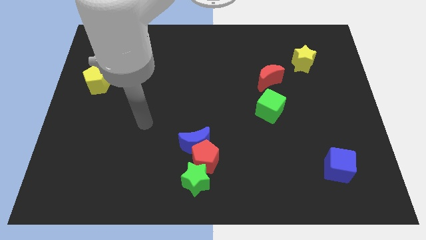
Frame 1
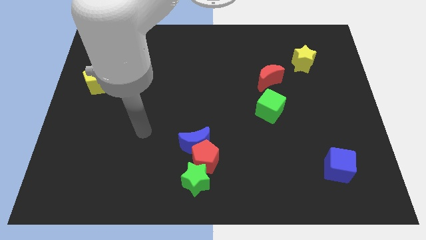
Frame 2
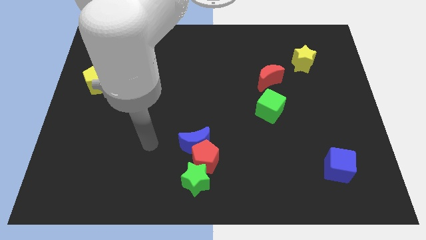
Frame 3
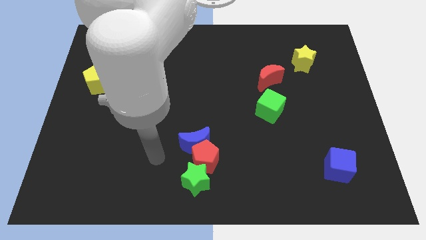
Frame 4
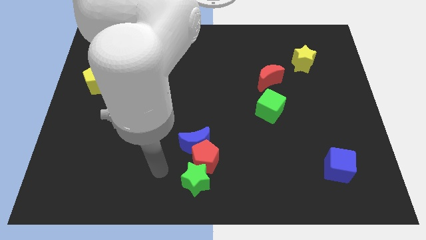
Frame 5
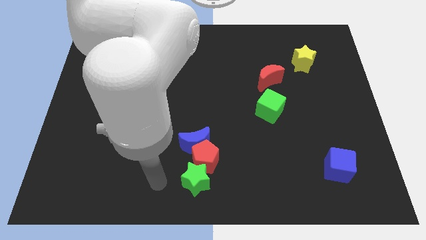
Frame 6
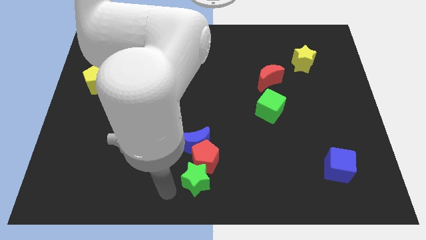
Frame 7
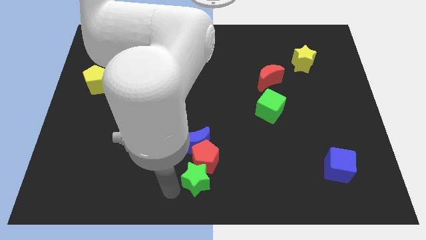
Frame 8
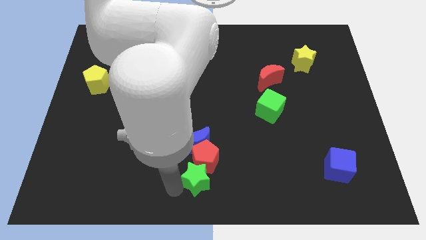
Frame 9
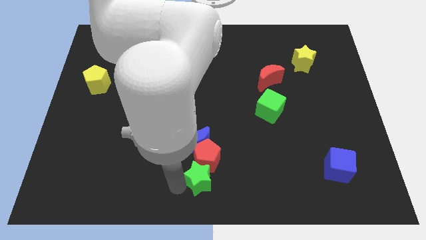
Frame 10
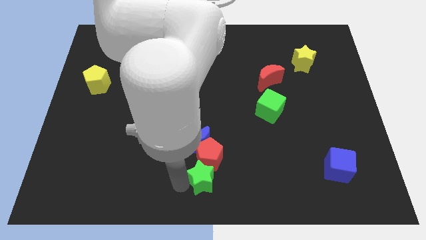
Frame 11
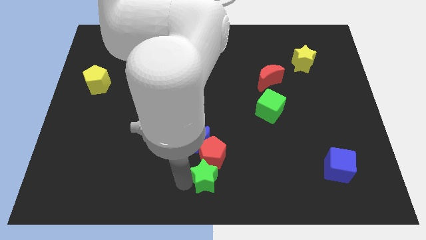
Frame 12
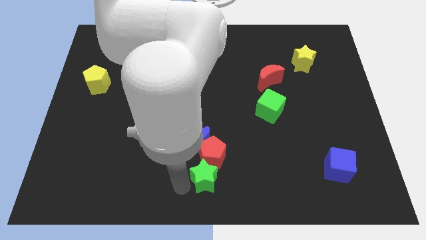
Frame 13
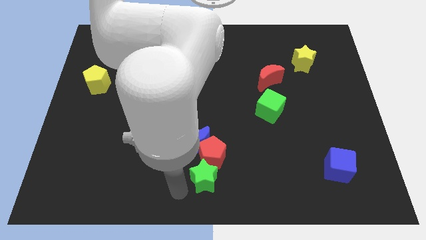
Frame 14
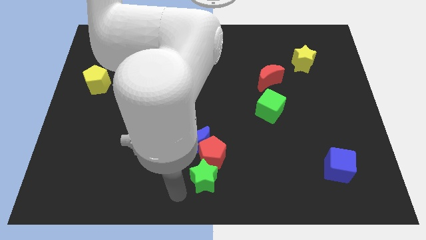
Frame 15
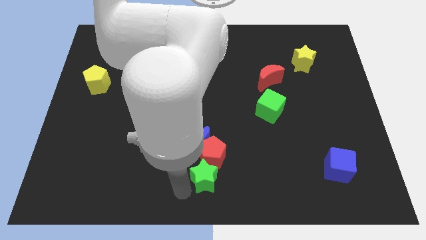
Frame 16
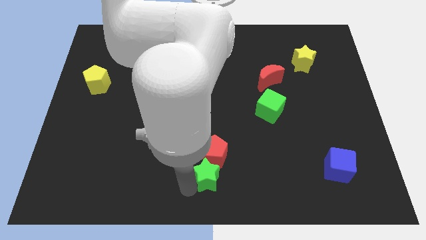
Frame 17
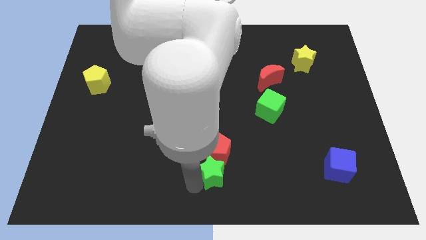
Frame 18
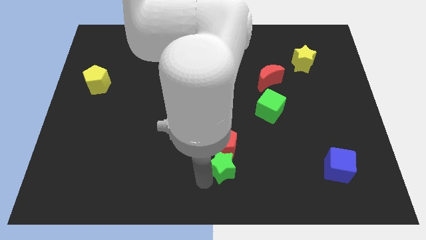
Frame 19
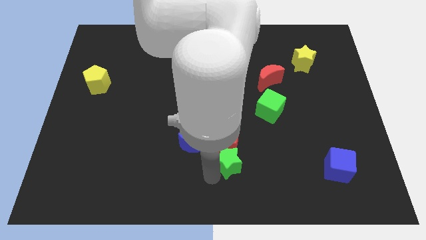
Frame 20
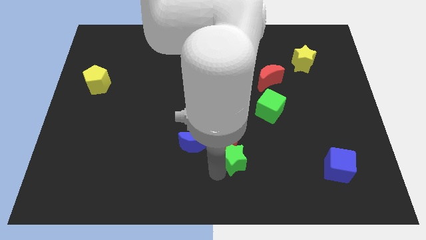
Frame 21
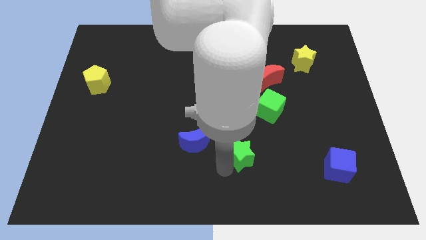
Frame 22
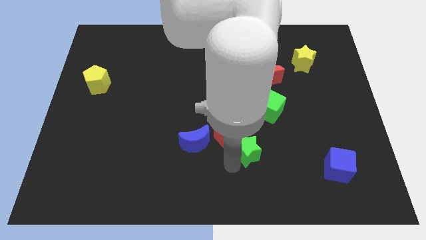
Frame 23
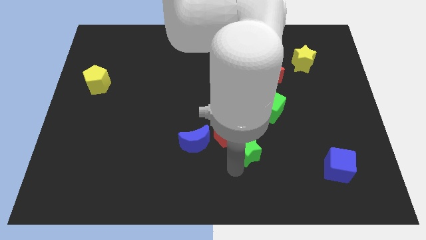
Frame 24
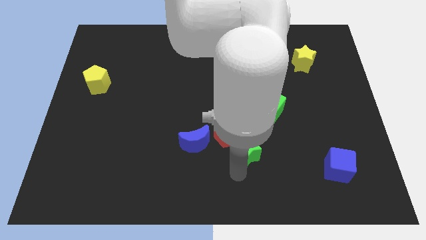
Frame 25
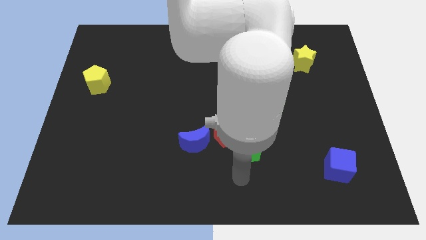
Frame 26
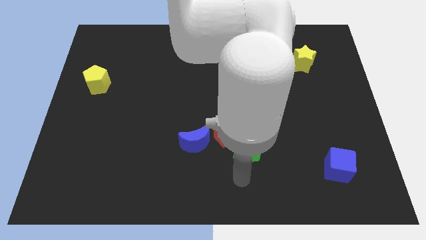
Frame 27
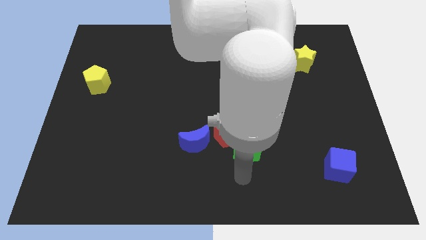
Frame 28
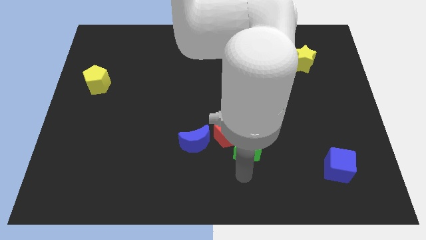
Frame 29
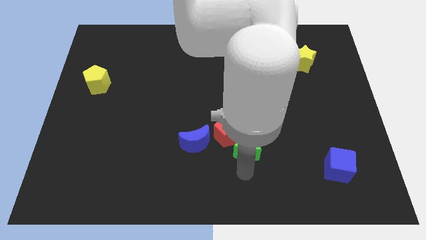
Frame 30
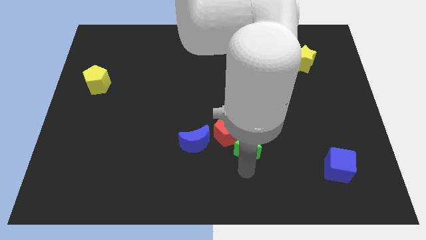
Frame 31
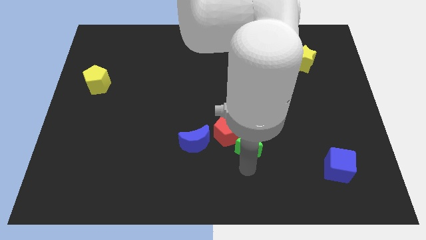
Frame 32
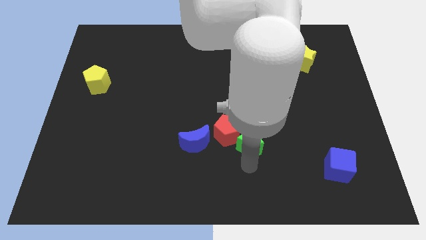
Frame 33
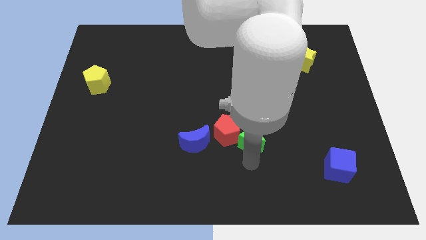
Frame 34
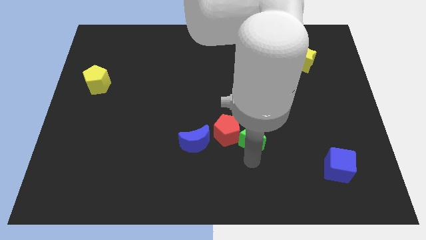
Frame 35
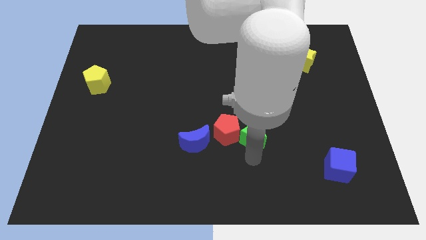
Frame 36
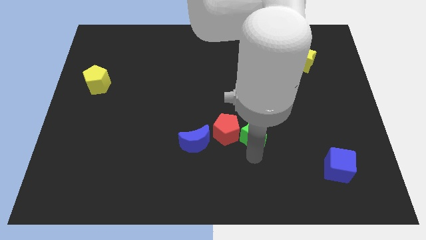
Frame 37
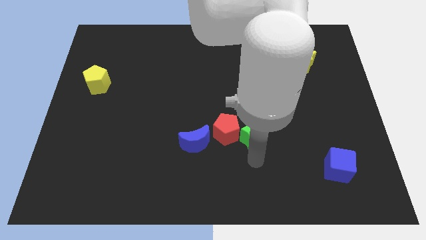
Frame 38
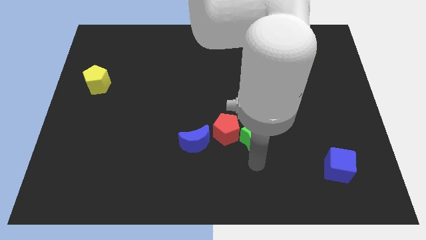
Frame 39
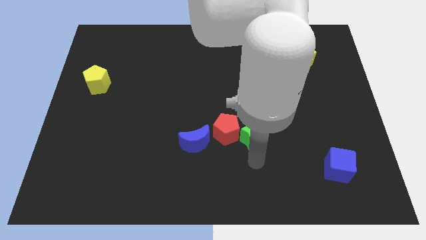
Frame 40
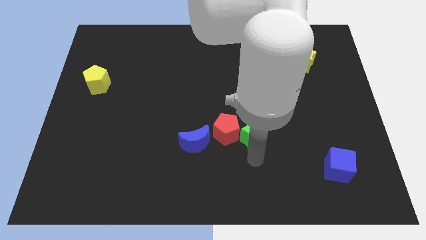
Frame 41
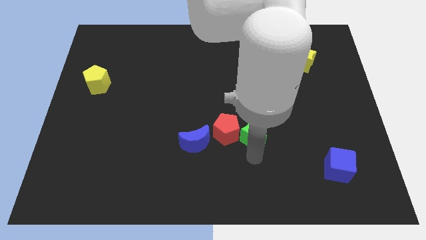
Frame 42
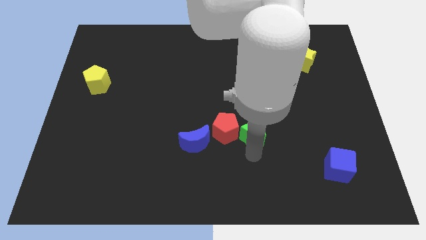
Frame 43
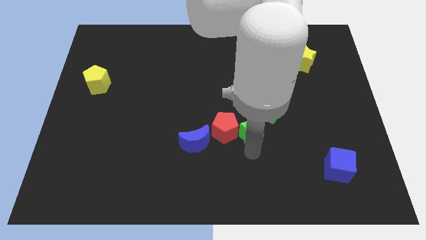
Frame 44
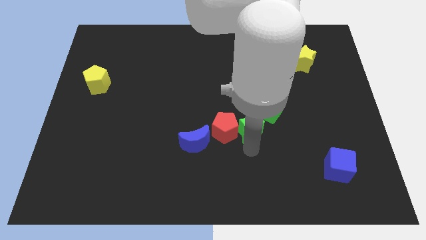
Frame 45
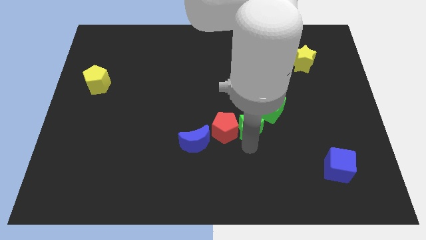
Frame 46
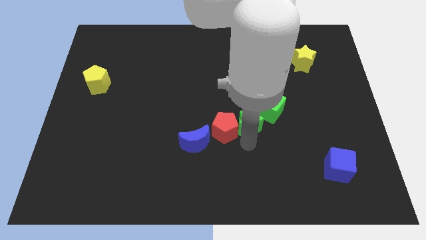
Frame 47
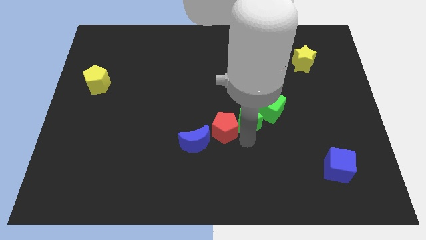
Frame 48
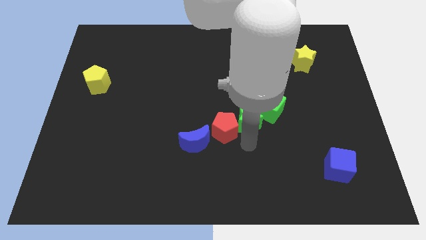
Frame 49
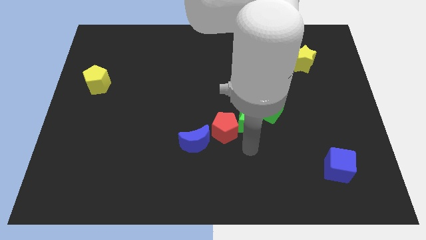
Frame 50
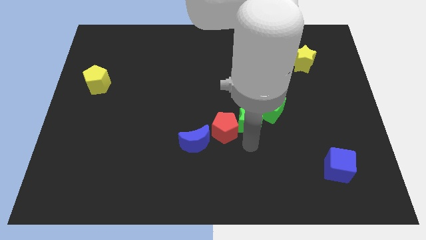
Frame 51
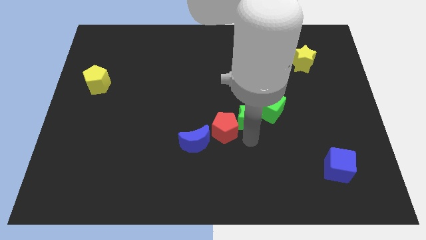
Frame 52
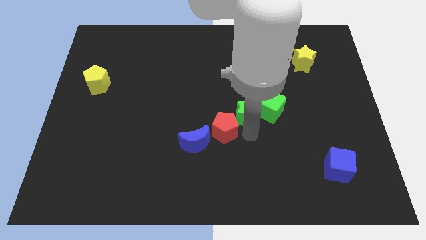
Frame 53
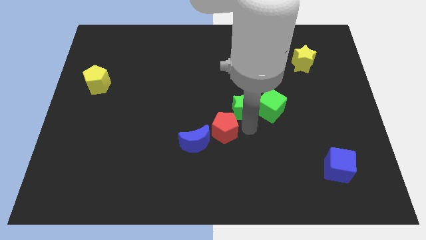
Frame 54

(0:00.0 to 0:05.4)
slide the green star diagonally down and to the left of the red moon

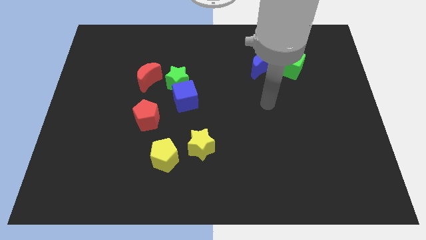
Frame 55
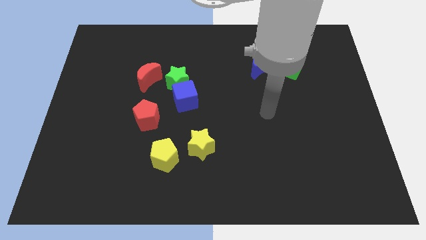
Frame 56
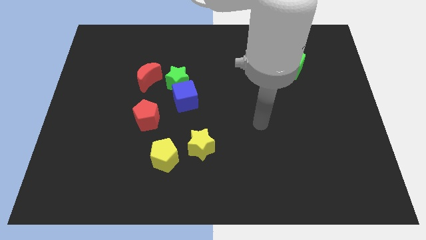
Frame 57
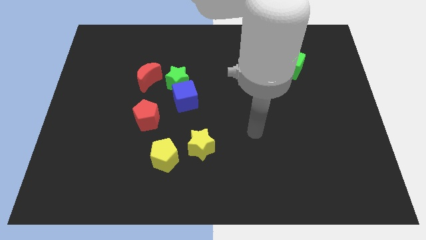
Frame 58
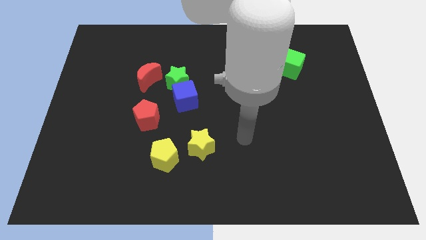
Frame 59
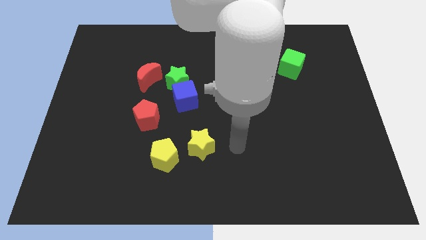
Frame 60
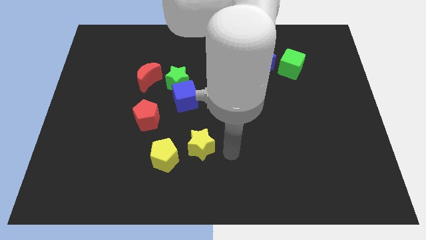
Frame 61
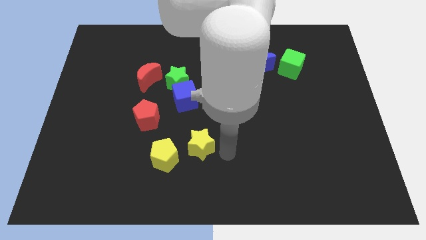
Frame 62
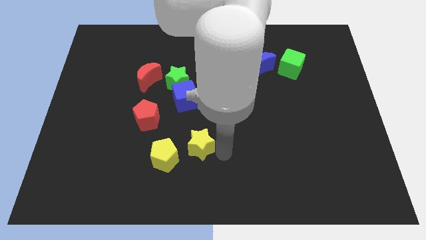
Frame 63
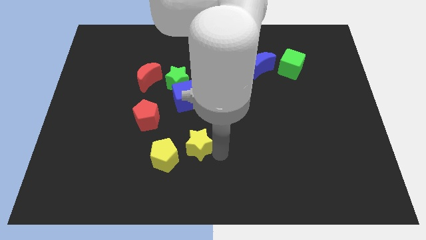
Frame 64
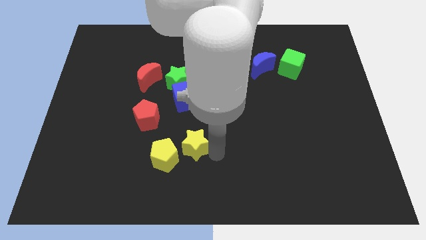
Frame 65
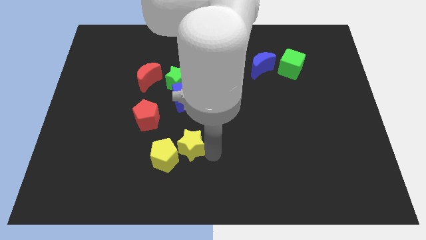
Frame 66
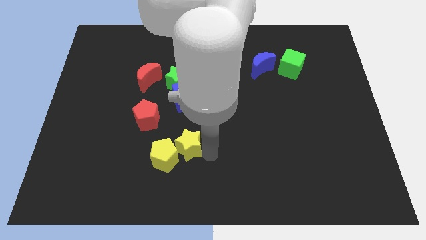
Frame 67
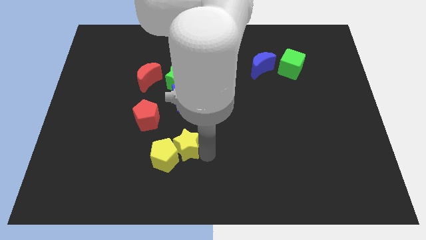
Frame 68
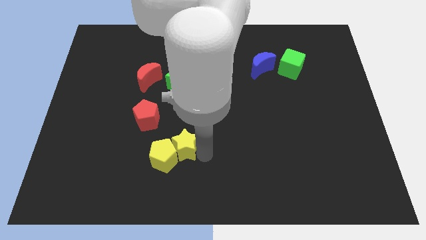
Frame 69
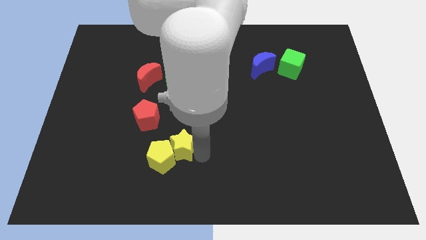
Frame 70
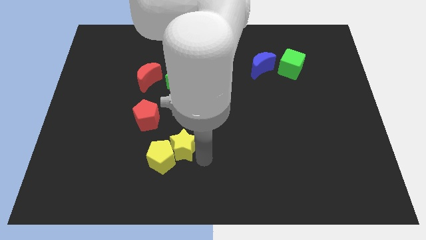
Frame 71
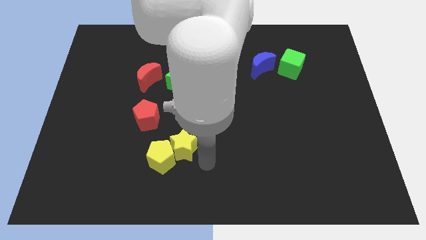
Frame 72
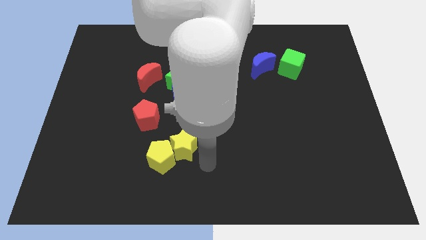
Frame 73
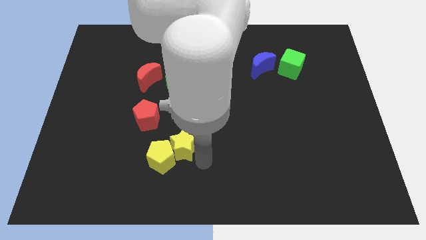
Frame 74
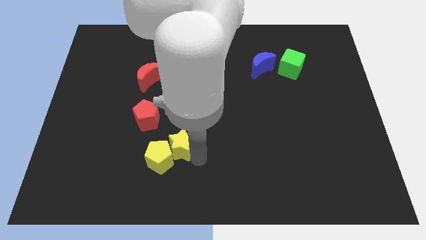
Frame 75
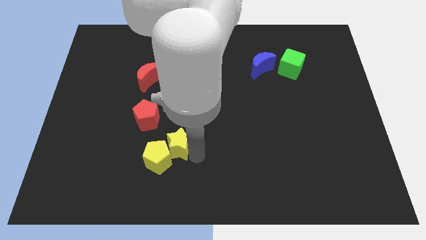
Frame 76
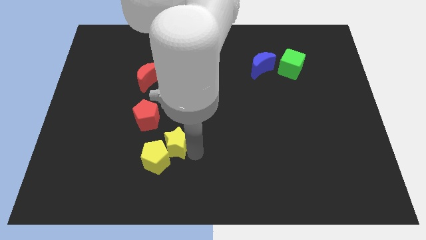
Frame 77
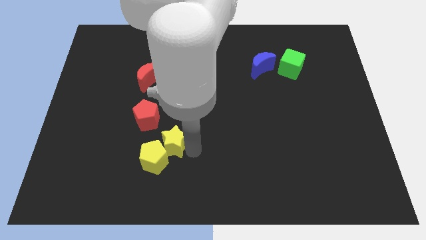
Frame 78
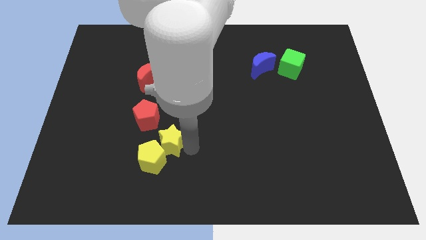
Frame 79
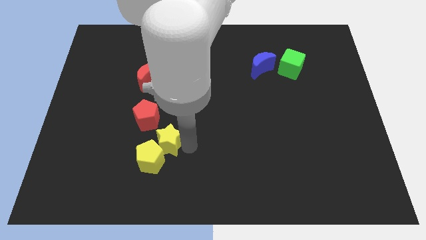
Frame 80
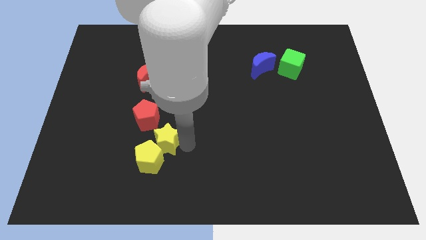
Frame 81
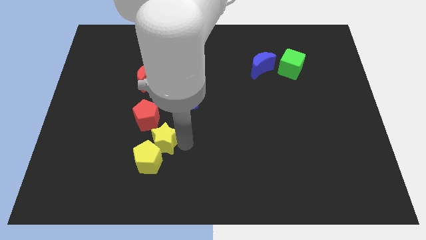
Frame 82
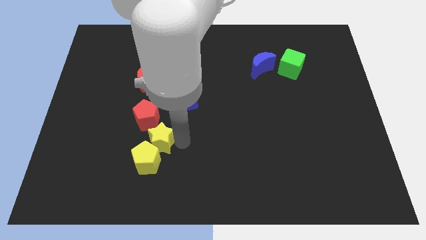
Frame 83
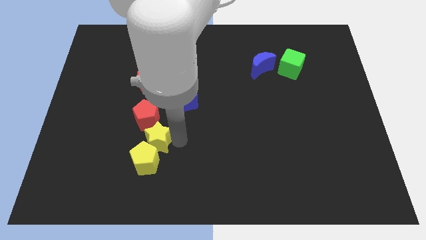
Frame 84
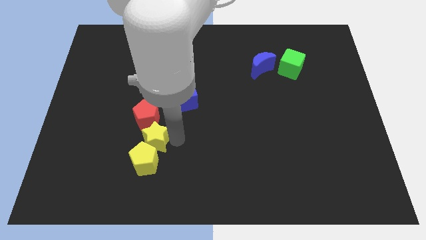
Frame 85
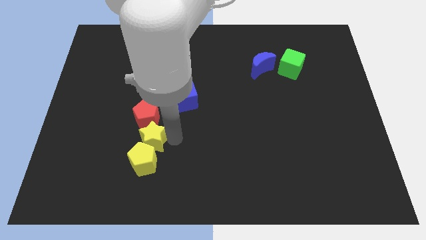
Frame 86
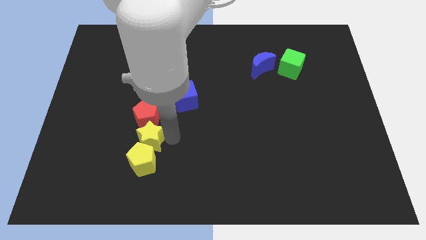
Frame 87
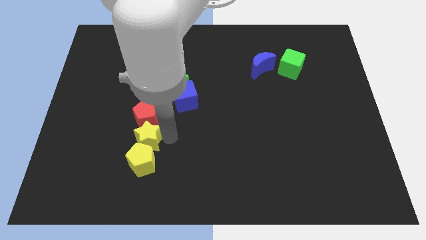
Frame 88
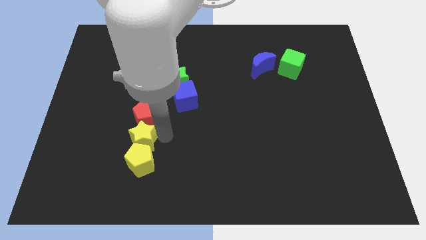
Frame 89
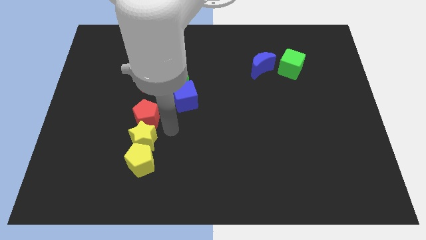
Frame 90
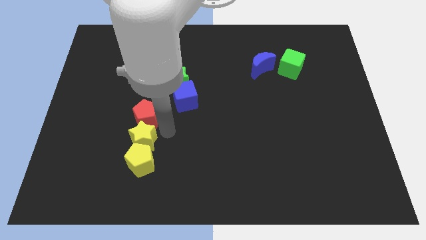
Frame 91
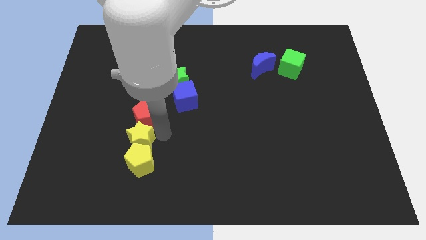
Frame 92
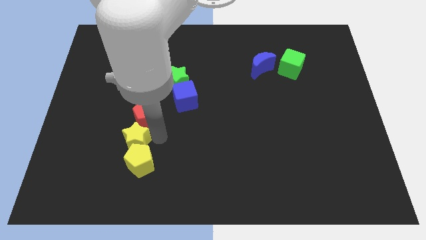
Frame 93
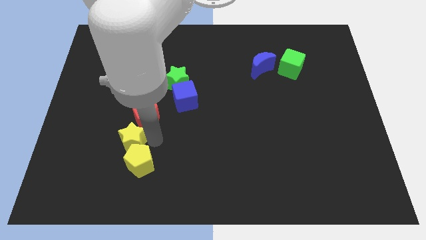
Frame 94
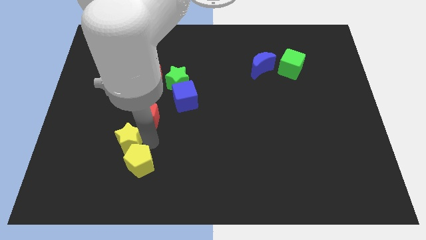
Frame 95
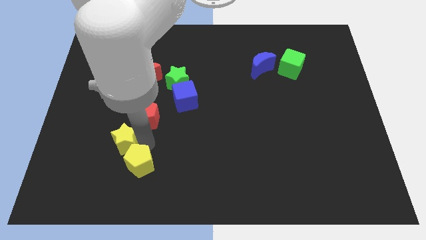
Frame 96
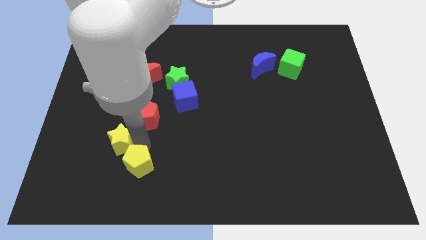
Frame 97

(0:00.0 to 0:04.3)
push the yellow star left of the yellow pentagon
